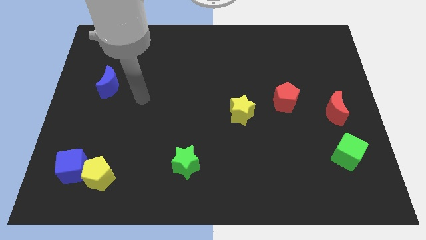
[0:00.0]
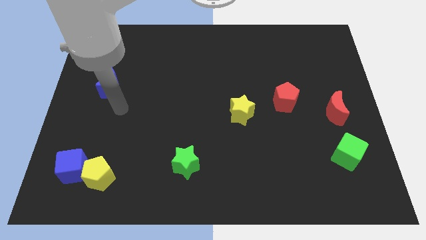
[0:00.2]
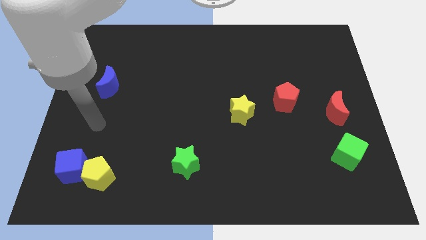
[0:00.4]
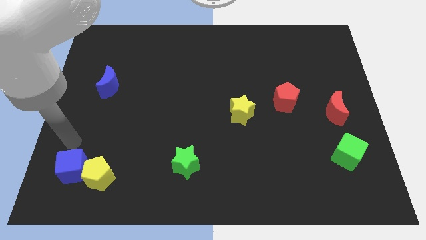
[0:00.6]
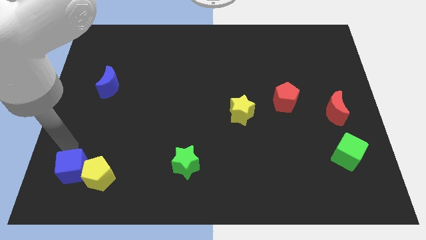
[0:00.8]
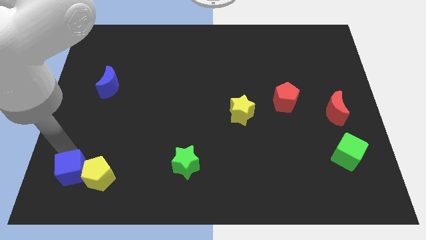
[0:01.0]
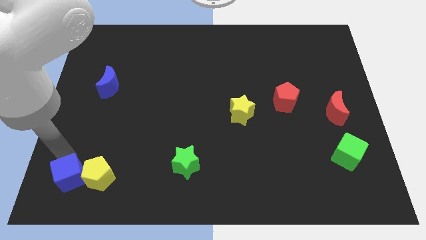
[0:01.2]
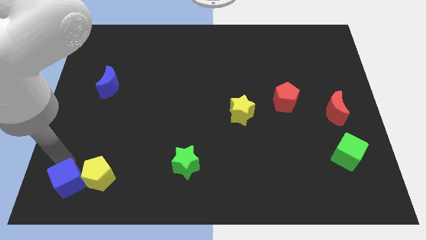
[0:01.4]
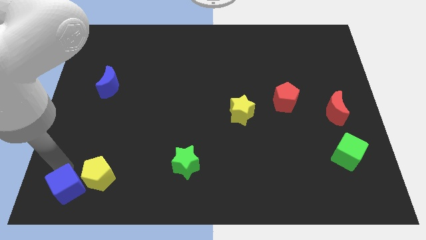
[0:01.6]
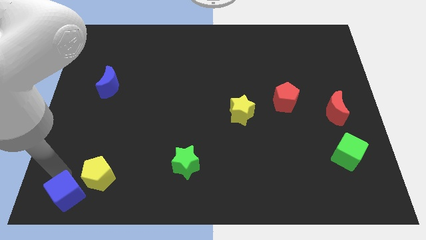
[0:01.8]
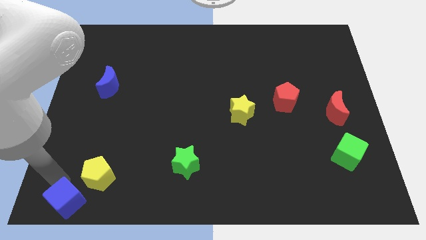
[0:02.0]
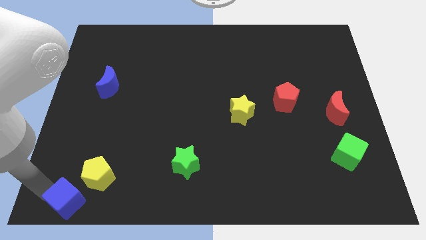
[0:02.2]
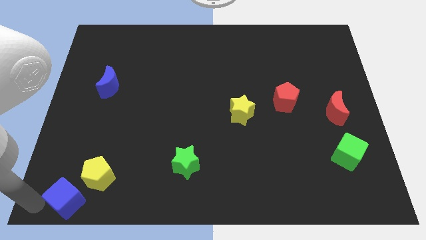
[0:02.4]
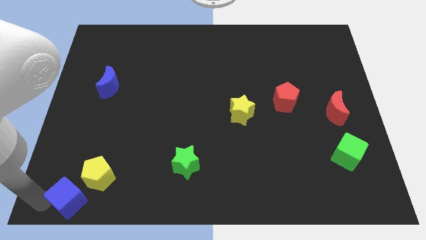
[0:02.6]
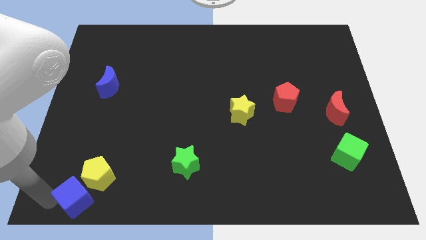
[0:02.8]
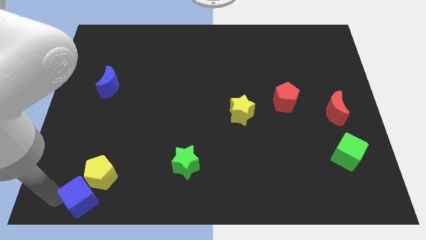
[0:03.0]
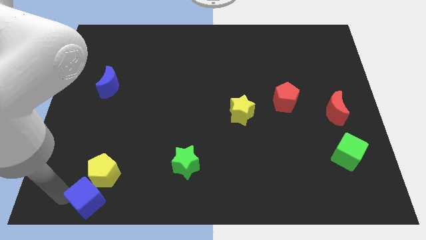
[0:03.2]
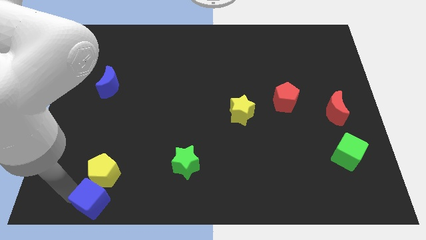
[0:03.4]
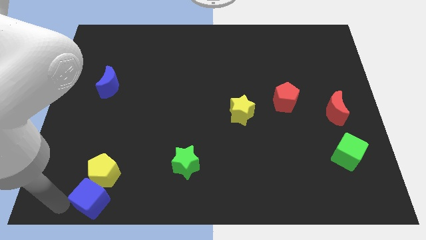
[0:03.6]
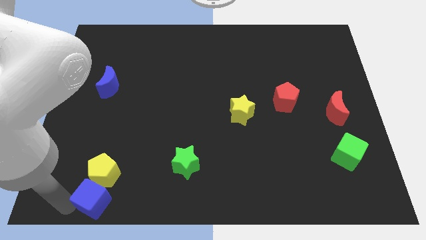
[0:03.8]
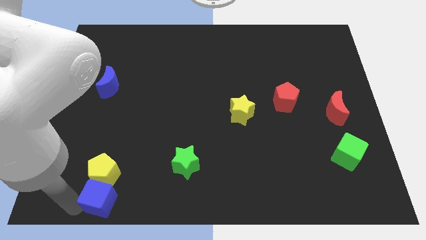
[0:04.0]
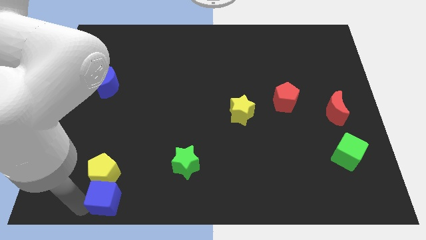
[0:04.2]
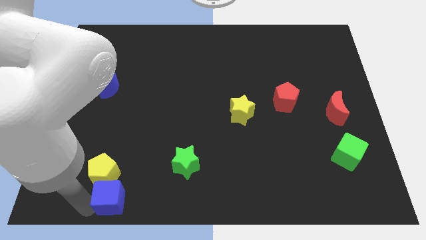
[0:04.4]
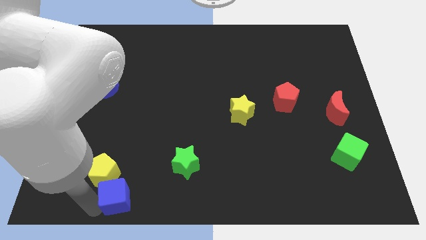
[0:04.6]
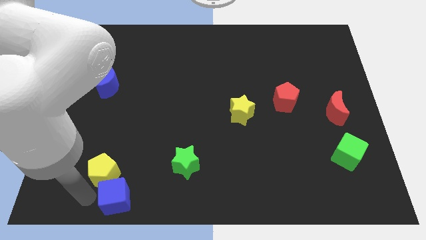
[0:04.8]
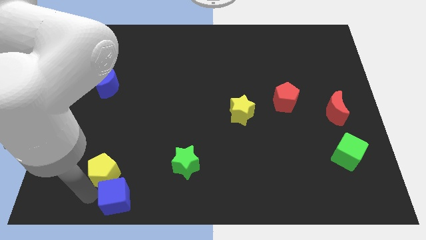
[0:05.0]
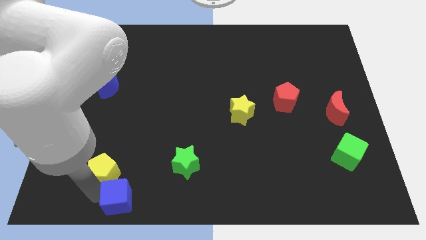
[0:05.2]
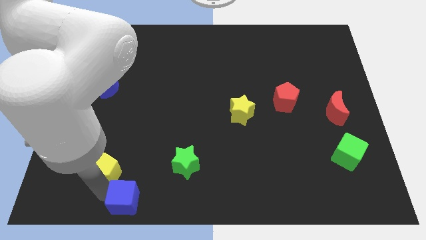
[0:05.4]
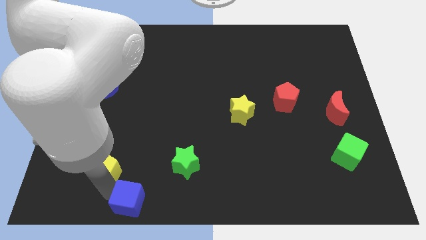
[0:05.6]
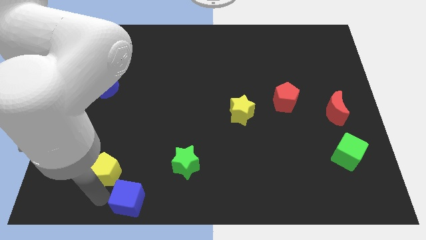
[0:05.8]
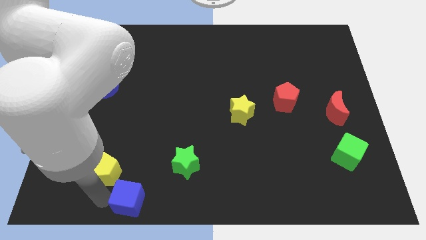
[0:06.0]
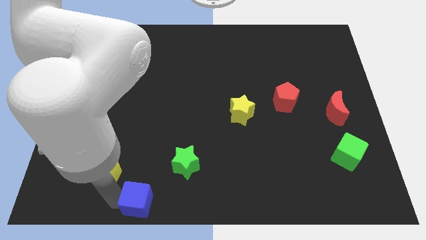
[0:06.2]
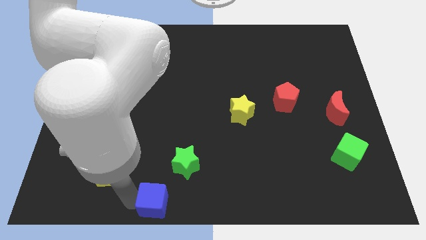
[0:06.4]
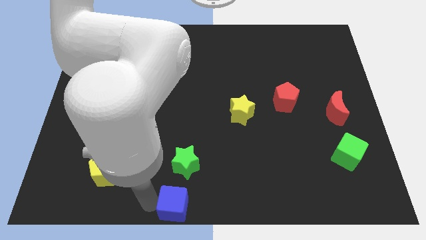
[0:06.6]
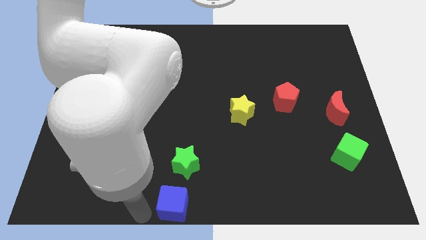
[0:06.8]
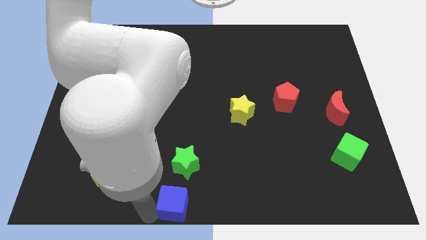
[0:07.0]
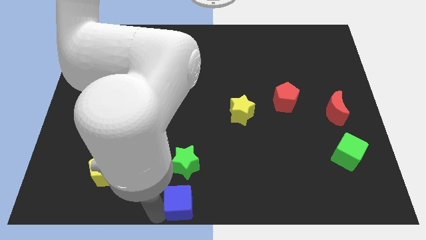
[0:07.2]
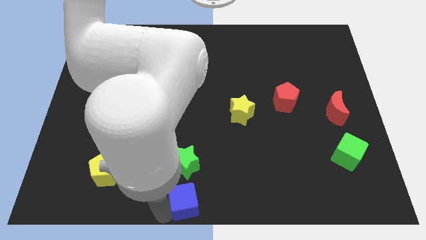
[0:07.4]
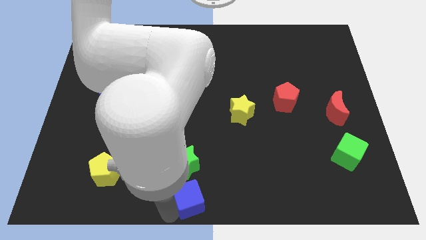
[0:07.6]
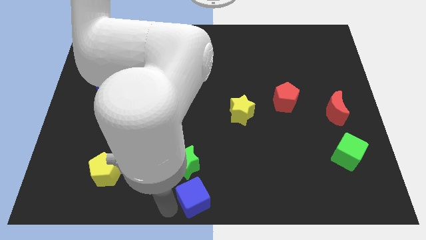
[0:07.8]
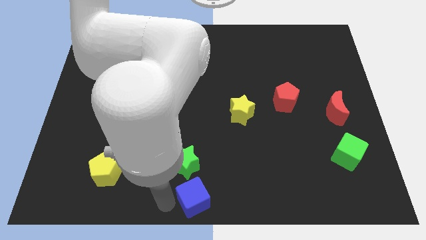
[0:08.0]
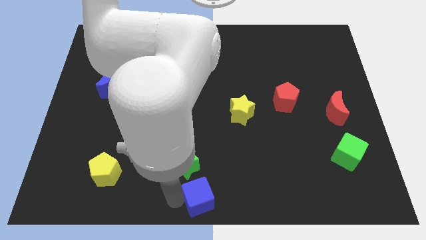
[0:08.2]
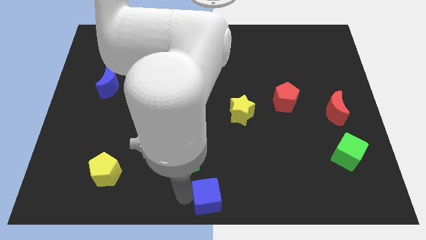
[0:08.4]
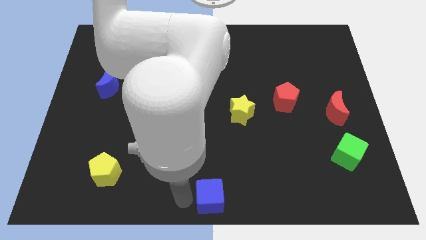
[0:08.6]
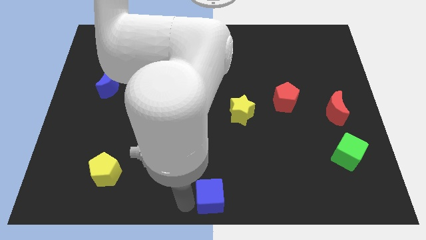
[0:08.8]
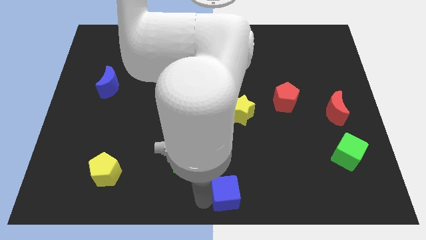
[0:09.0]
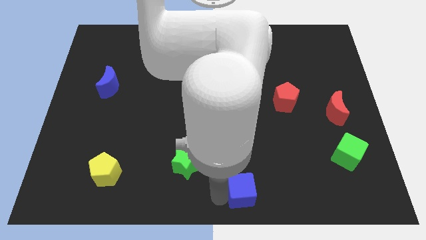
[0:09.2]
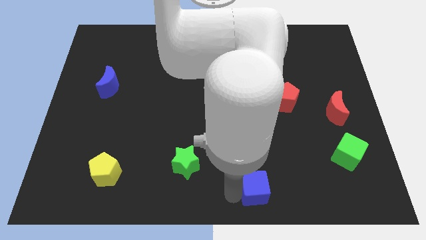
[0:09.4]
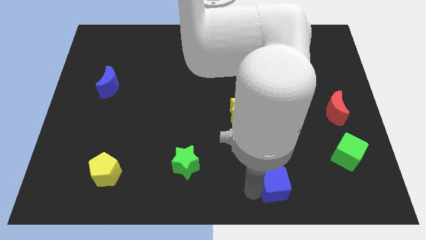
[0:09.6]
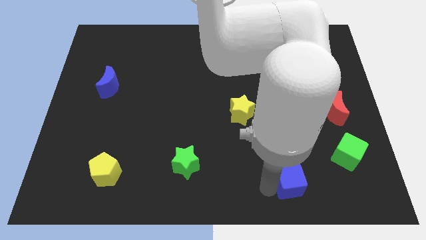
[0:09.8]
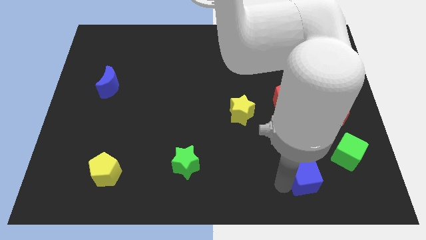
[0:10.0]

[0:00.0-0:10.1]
move the blue cube to the bottom left of the green cube

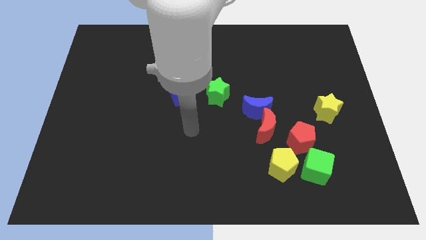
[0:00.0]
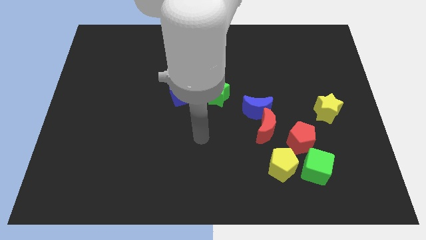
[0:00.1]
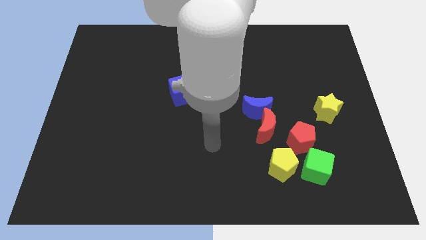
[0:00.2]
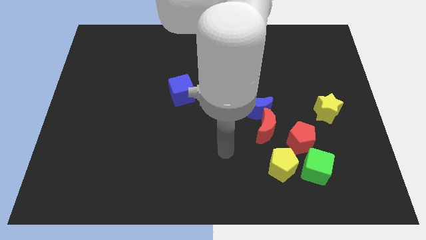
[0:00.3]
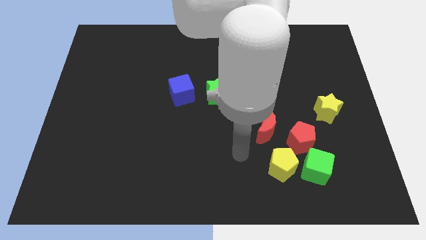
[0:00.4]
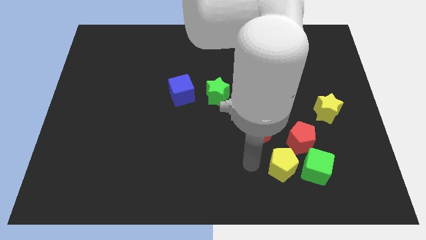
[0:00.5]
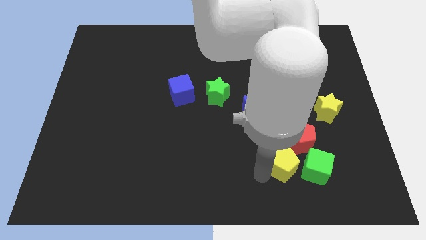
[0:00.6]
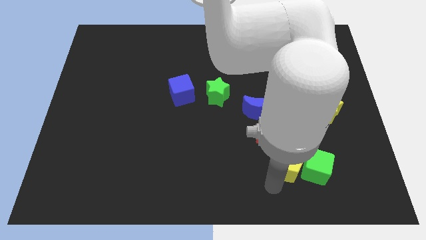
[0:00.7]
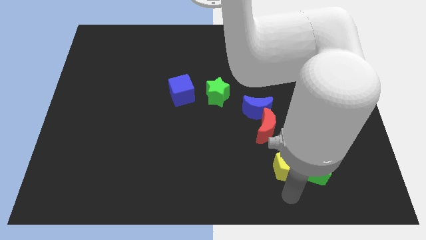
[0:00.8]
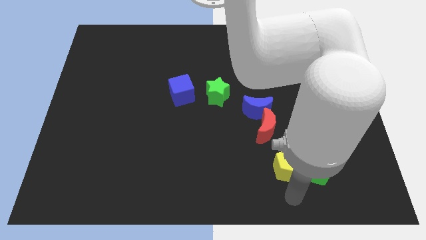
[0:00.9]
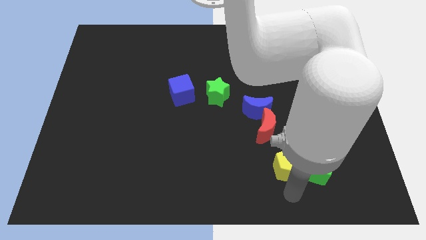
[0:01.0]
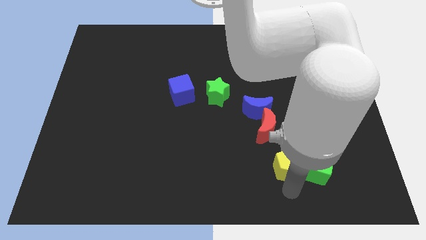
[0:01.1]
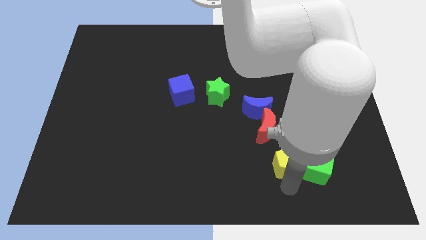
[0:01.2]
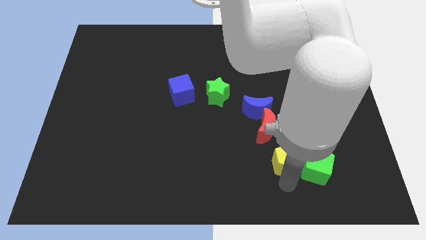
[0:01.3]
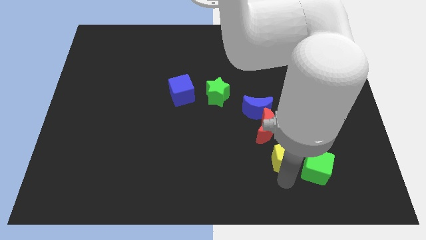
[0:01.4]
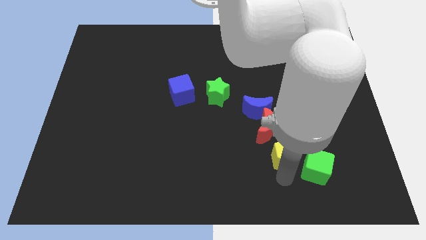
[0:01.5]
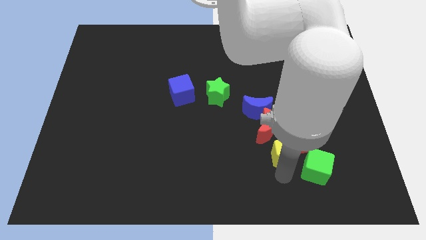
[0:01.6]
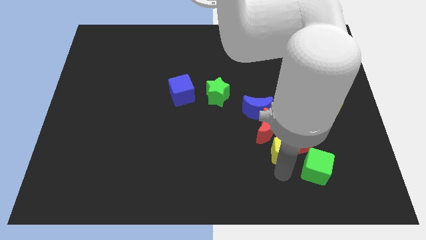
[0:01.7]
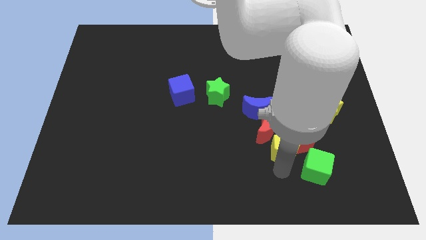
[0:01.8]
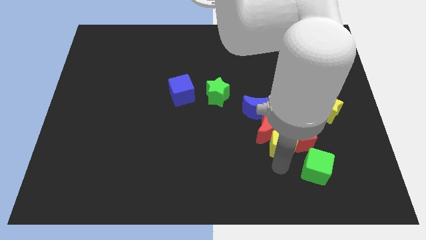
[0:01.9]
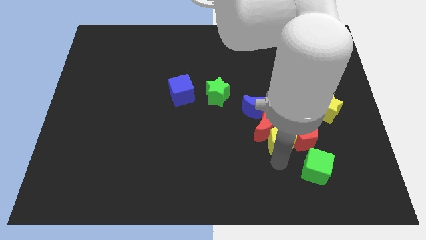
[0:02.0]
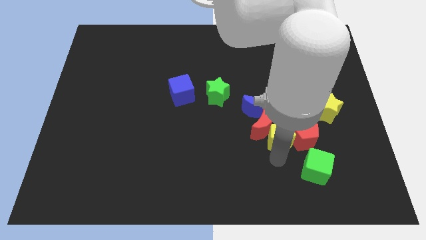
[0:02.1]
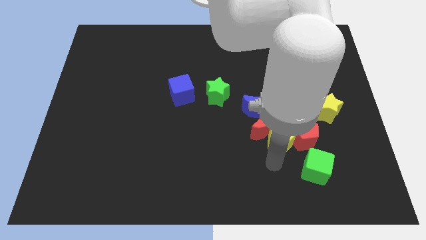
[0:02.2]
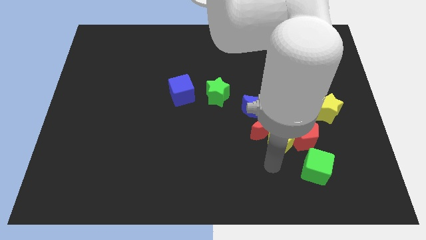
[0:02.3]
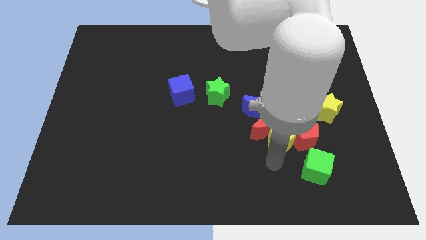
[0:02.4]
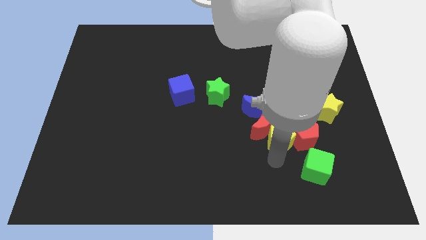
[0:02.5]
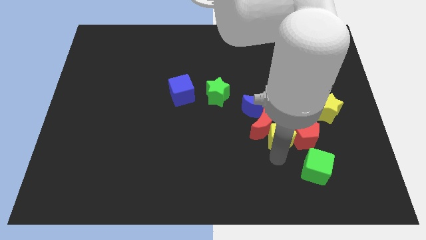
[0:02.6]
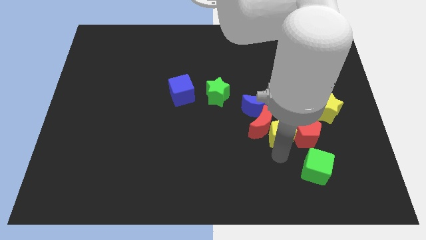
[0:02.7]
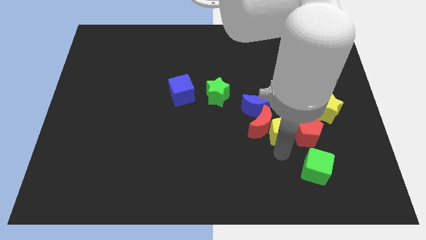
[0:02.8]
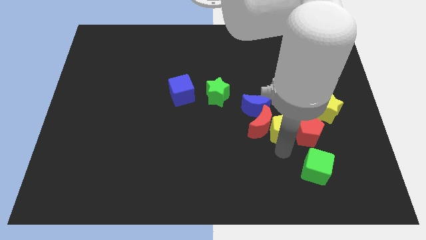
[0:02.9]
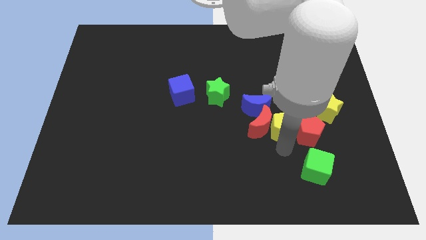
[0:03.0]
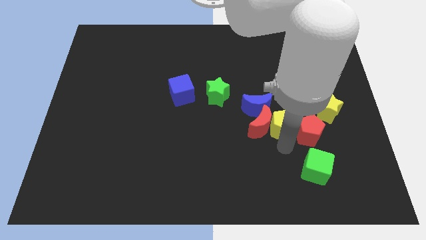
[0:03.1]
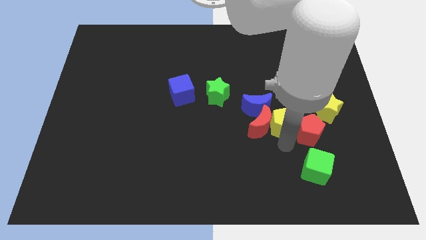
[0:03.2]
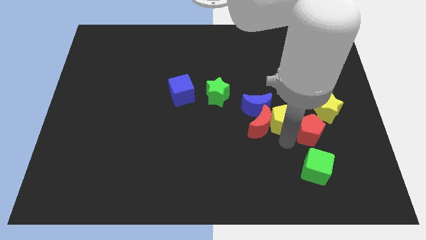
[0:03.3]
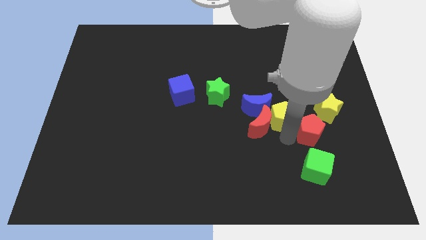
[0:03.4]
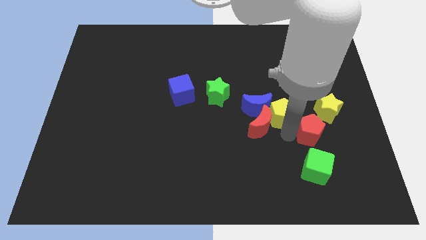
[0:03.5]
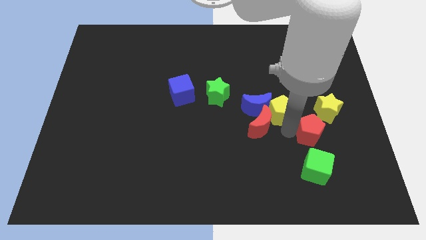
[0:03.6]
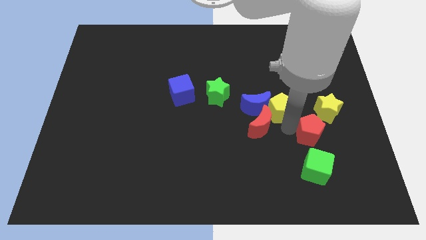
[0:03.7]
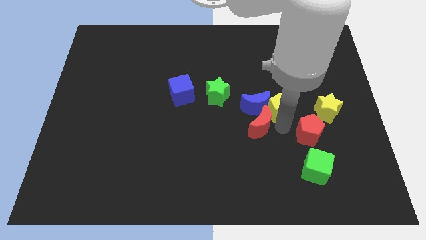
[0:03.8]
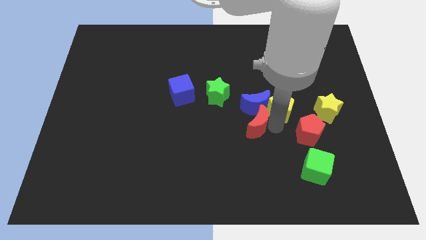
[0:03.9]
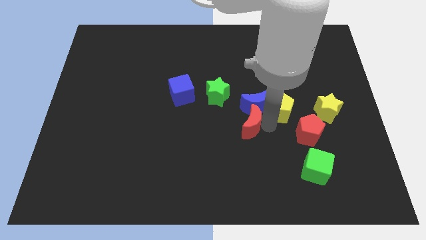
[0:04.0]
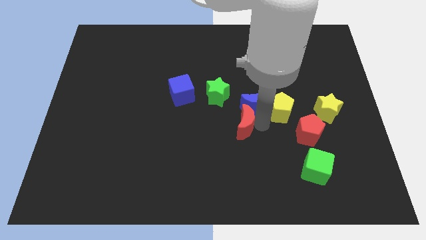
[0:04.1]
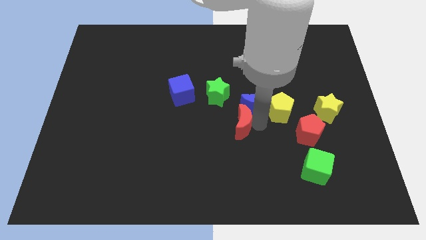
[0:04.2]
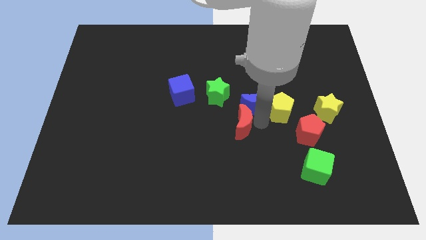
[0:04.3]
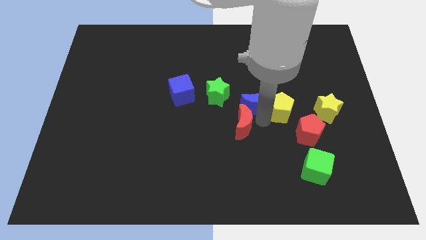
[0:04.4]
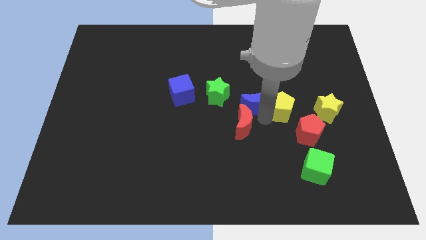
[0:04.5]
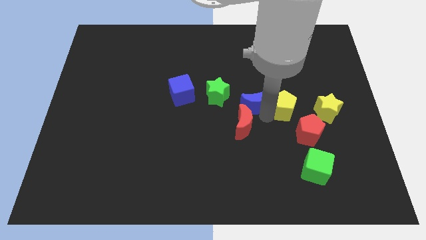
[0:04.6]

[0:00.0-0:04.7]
slide the yellow pentagon to the top of the red pentagon
